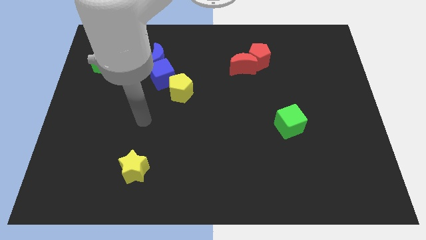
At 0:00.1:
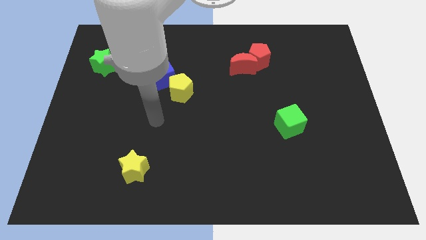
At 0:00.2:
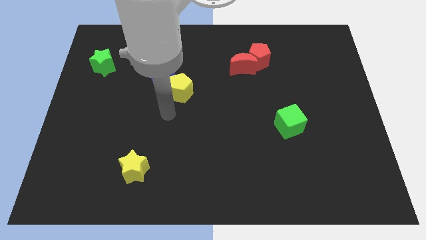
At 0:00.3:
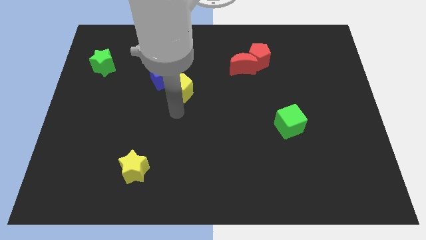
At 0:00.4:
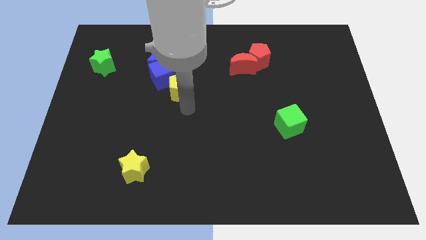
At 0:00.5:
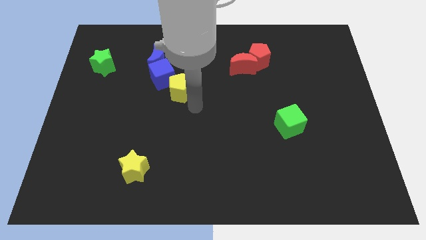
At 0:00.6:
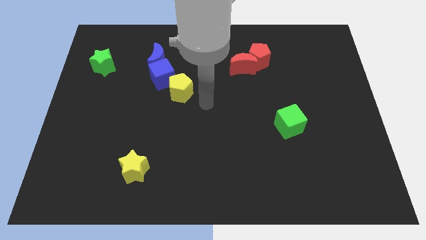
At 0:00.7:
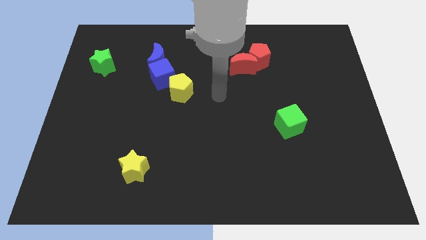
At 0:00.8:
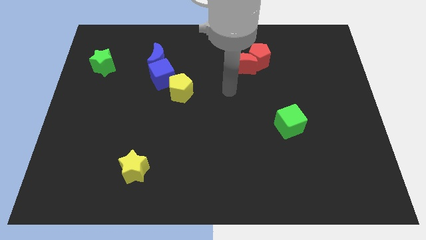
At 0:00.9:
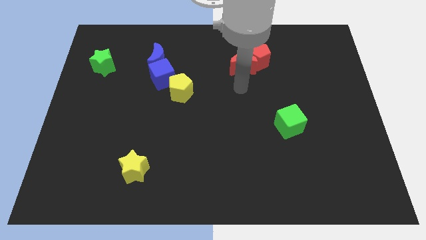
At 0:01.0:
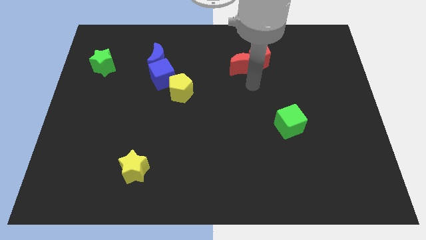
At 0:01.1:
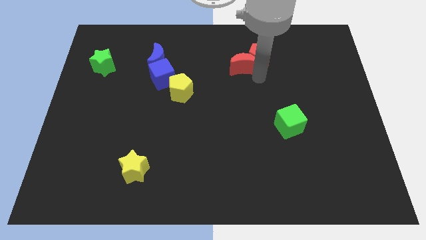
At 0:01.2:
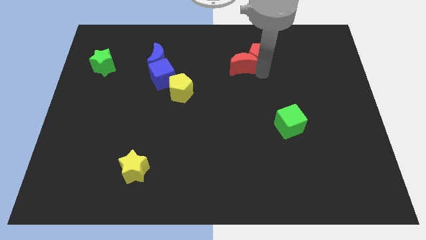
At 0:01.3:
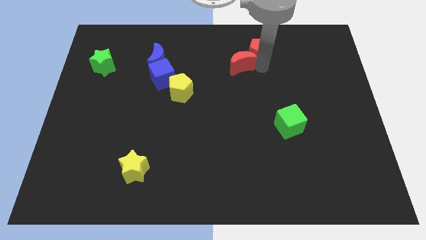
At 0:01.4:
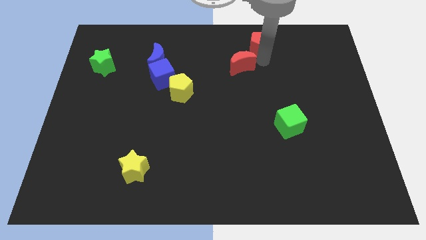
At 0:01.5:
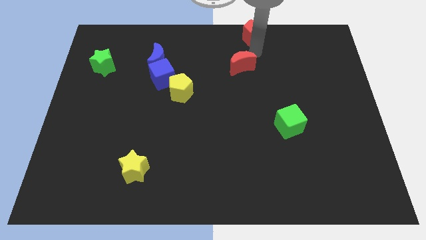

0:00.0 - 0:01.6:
move the red moon away from the red pentagon

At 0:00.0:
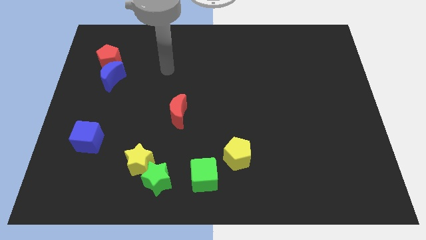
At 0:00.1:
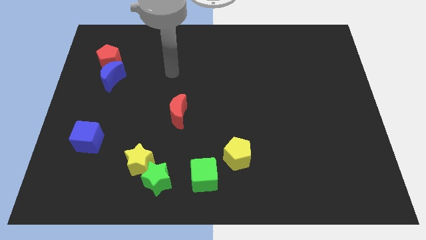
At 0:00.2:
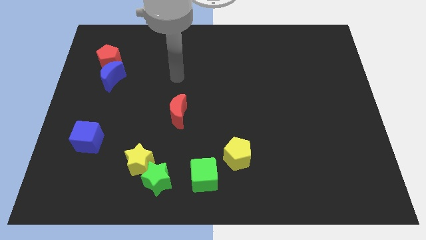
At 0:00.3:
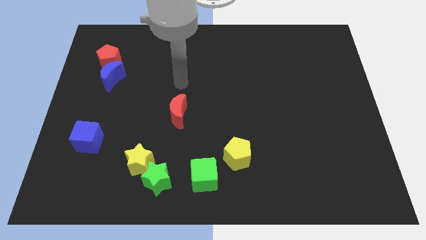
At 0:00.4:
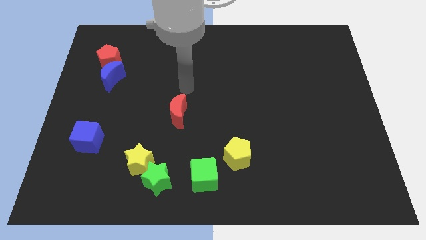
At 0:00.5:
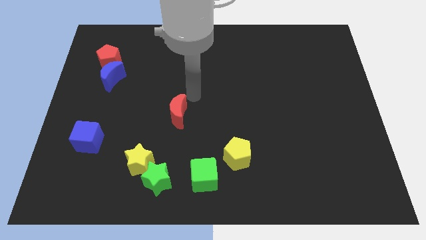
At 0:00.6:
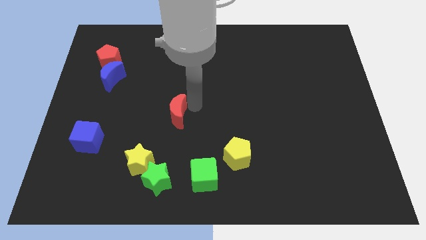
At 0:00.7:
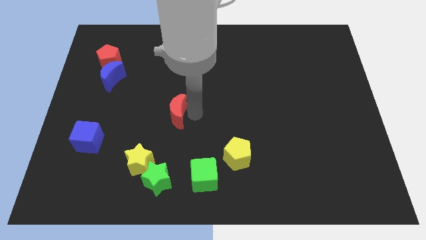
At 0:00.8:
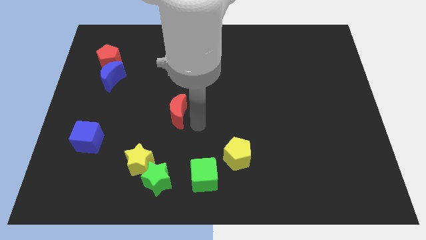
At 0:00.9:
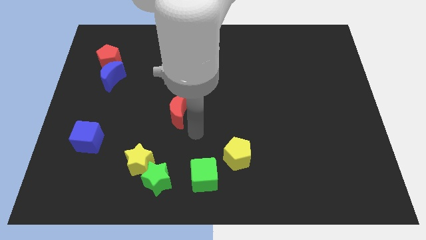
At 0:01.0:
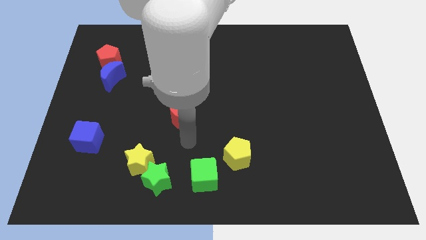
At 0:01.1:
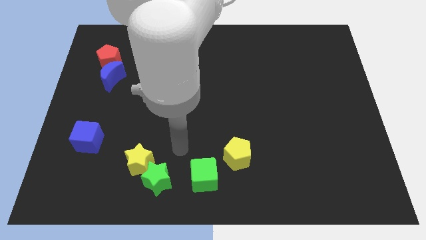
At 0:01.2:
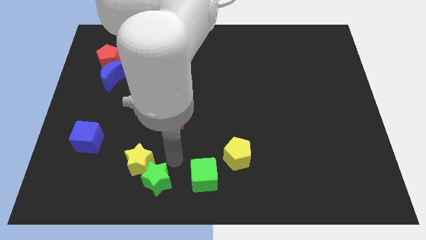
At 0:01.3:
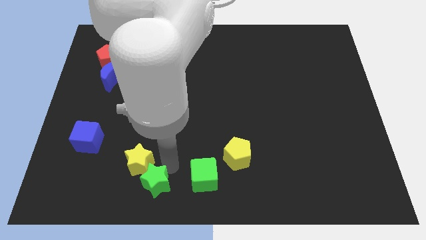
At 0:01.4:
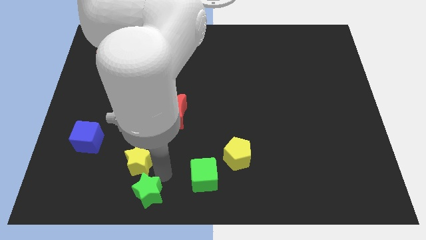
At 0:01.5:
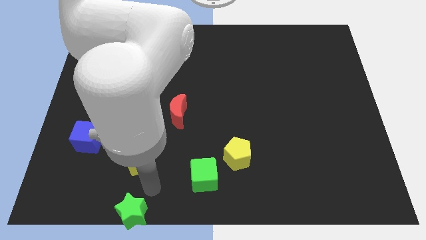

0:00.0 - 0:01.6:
separate the yellow star from the green star

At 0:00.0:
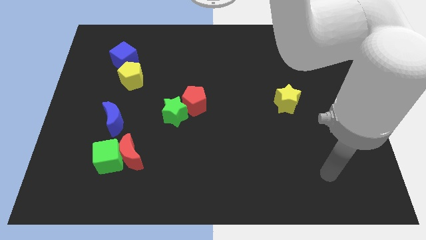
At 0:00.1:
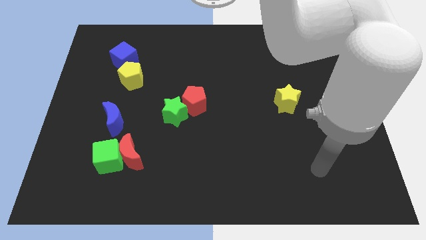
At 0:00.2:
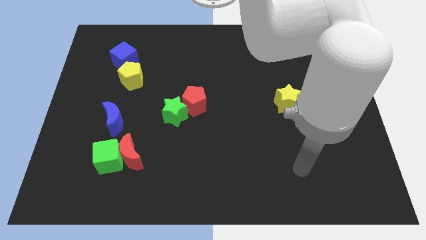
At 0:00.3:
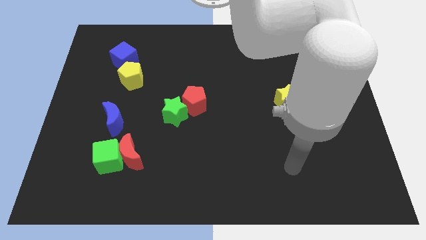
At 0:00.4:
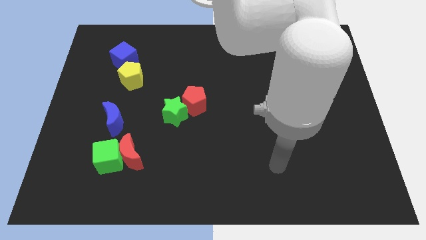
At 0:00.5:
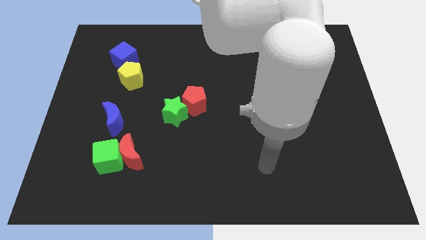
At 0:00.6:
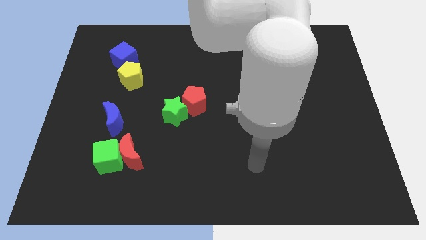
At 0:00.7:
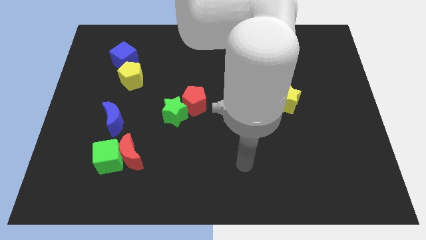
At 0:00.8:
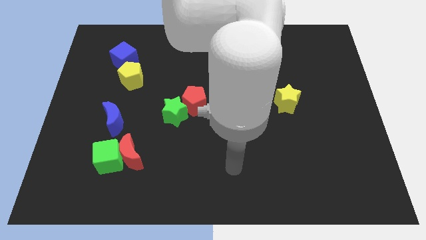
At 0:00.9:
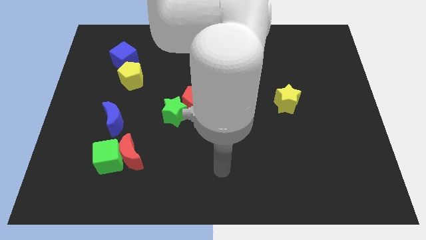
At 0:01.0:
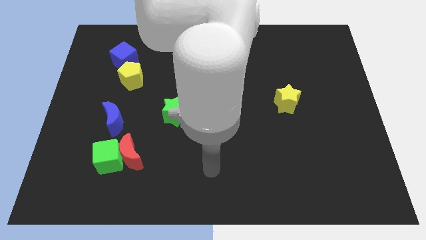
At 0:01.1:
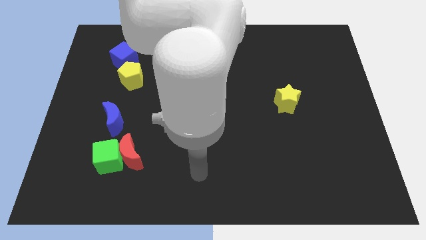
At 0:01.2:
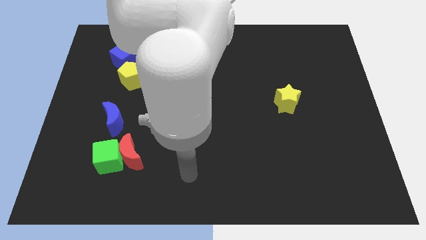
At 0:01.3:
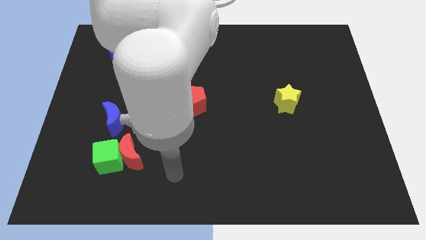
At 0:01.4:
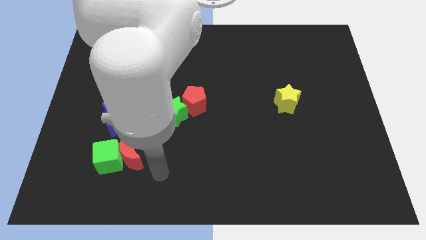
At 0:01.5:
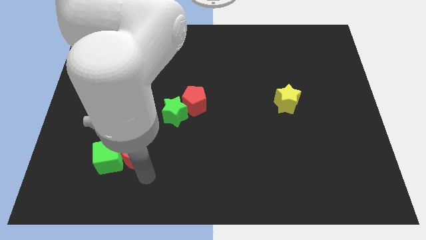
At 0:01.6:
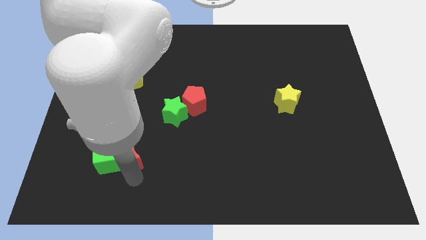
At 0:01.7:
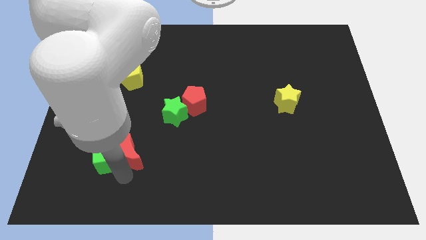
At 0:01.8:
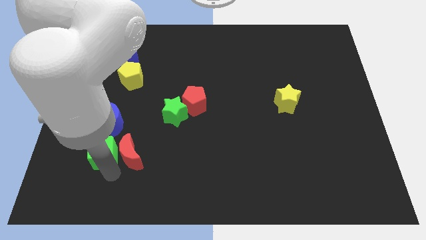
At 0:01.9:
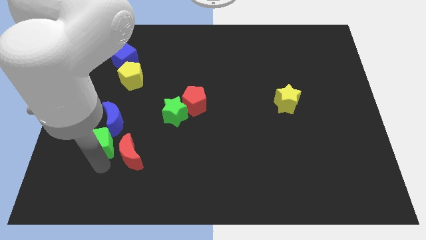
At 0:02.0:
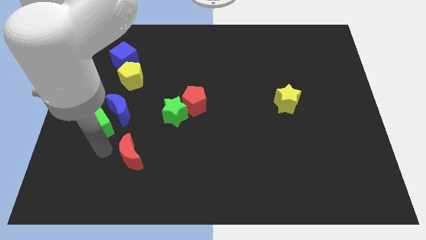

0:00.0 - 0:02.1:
move the red moon away from the green cube

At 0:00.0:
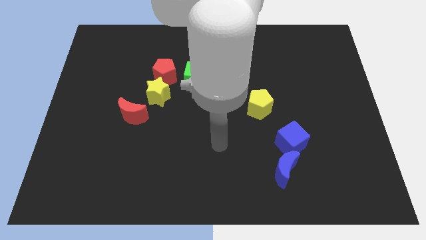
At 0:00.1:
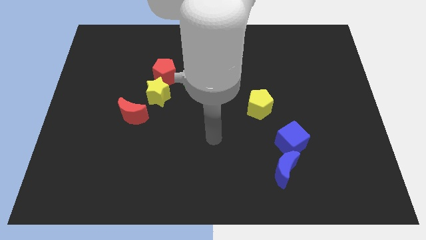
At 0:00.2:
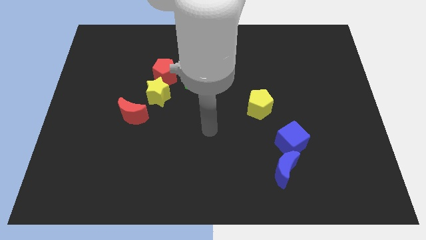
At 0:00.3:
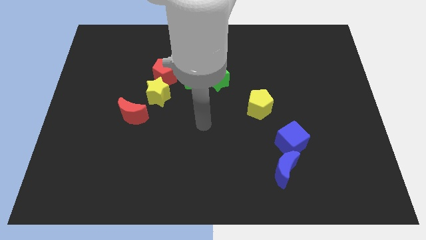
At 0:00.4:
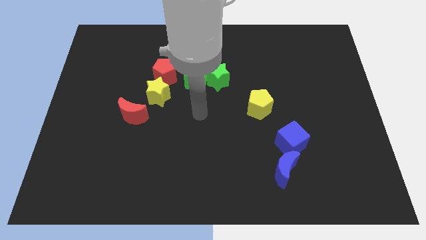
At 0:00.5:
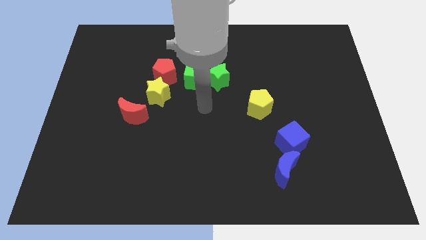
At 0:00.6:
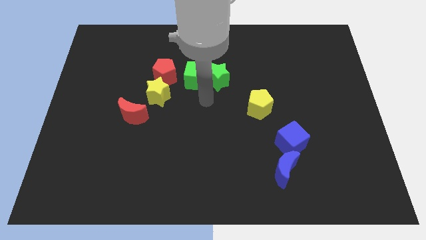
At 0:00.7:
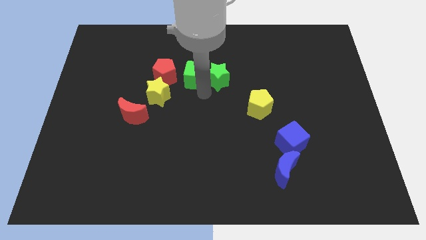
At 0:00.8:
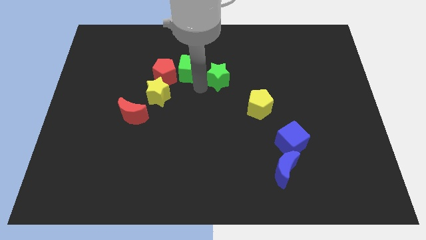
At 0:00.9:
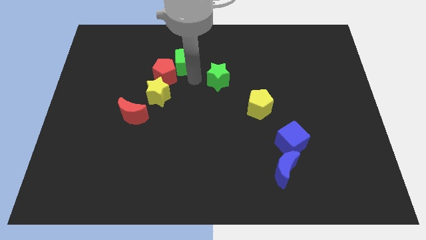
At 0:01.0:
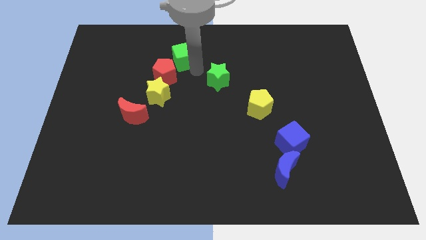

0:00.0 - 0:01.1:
separate the green star from the green cube

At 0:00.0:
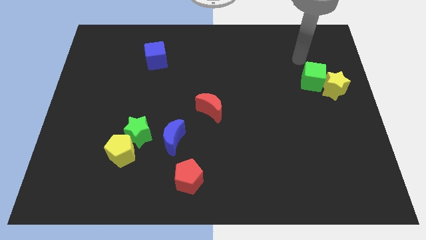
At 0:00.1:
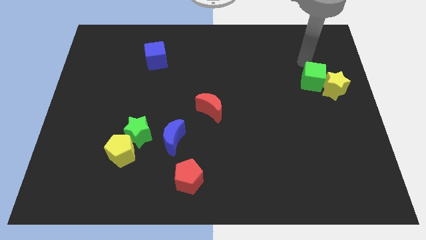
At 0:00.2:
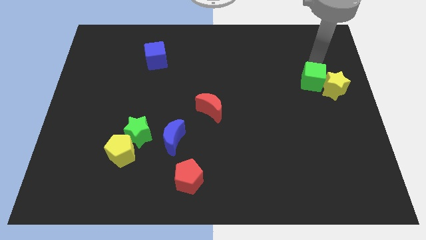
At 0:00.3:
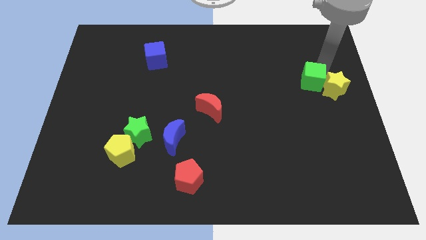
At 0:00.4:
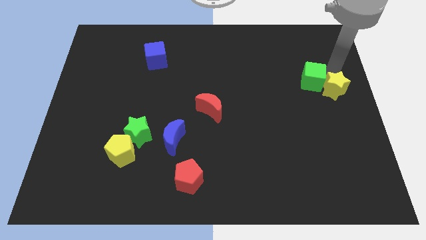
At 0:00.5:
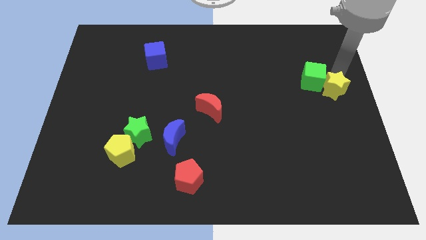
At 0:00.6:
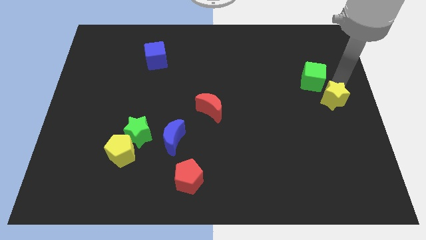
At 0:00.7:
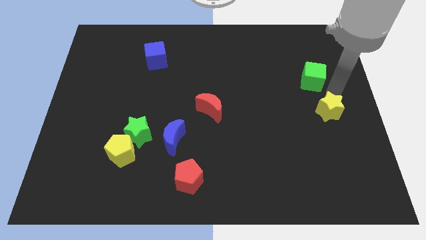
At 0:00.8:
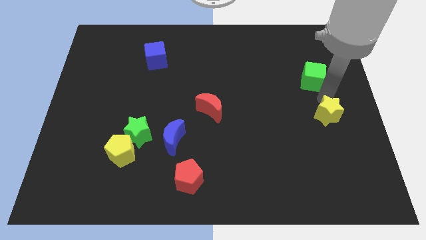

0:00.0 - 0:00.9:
move the green cube away from the yellow star

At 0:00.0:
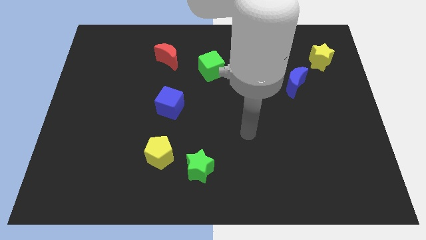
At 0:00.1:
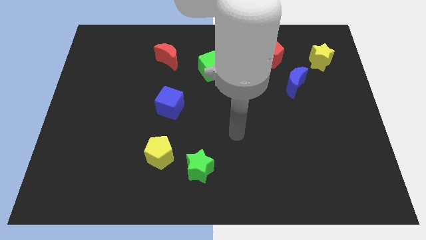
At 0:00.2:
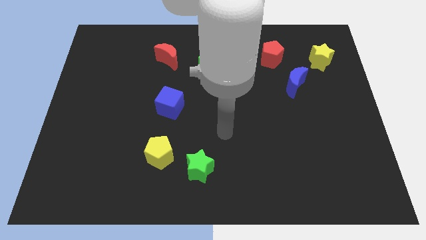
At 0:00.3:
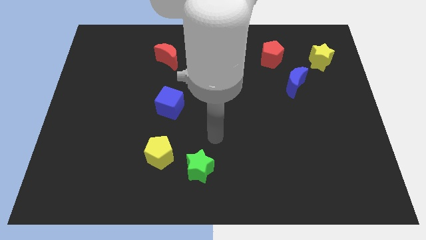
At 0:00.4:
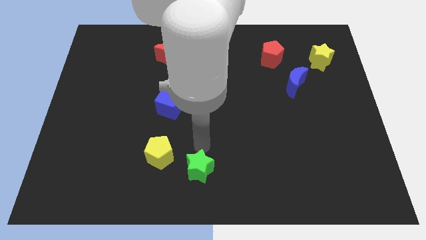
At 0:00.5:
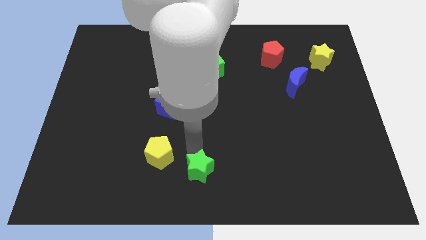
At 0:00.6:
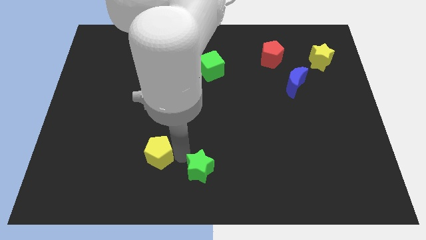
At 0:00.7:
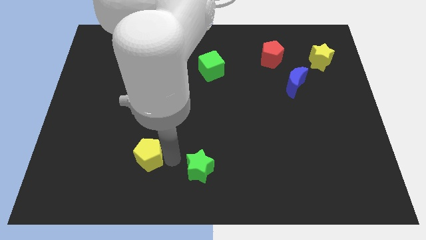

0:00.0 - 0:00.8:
move the green star away from the yellow pentagon

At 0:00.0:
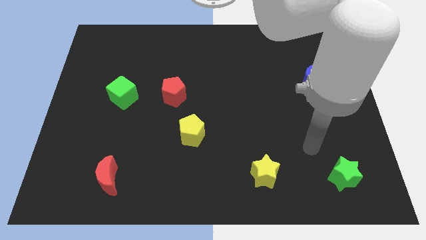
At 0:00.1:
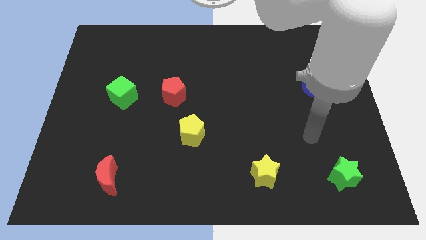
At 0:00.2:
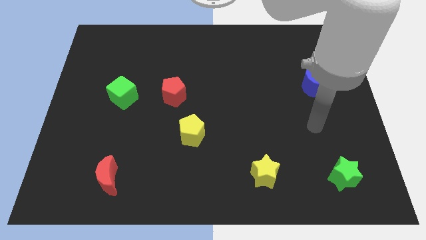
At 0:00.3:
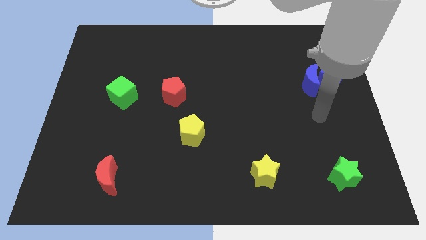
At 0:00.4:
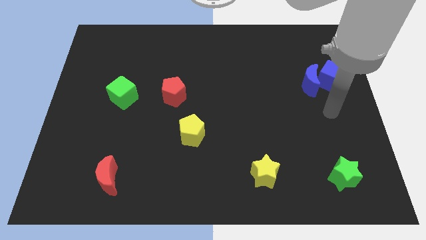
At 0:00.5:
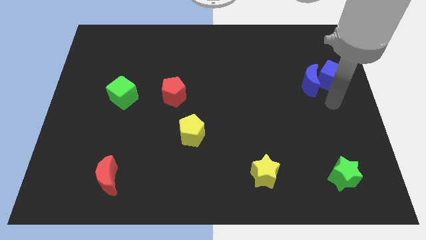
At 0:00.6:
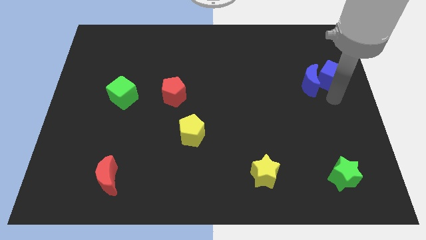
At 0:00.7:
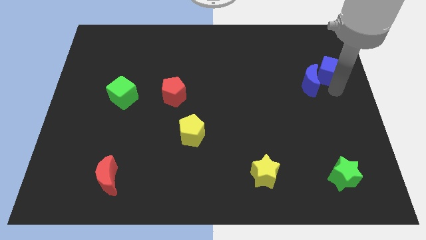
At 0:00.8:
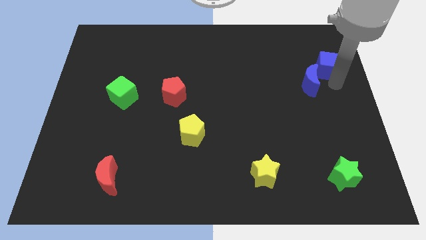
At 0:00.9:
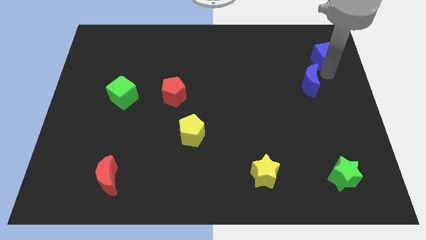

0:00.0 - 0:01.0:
pull the blue moon apart from the blue cube
